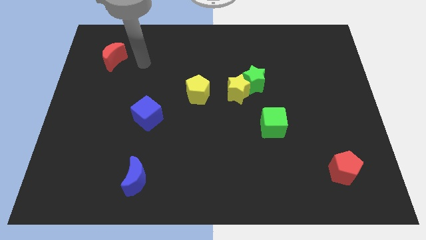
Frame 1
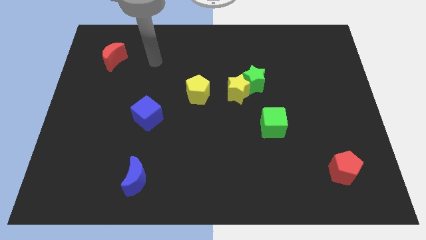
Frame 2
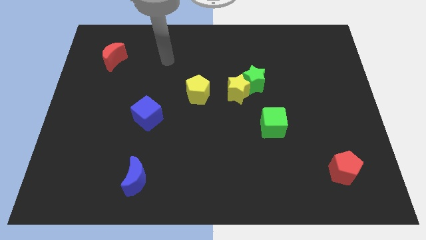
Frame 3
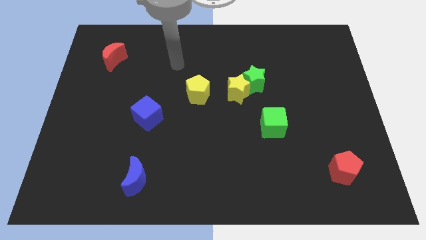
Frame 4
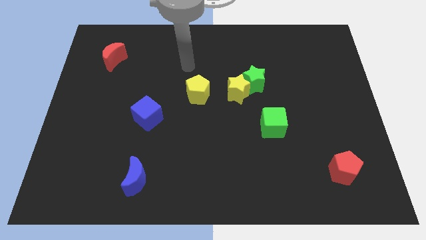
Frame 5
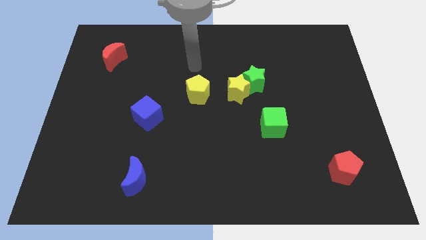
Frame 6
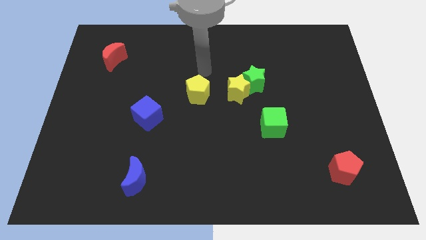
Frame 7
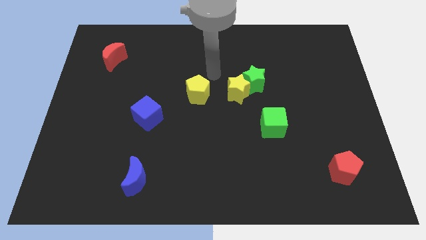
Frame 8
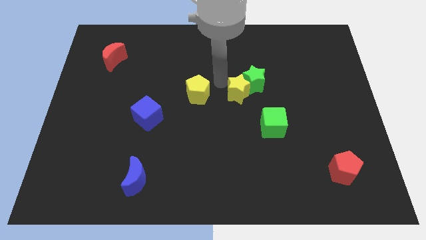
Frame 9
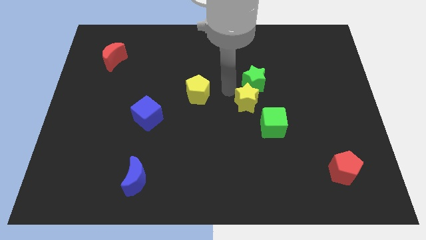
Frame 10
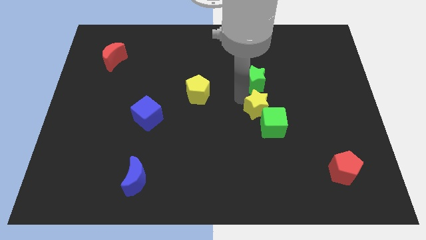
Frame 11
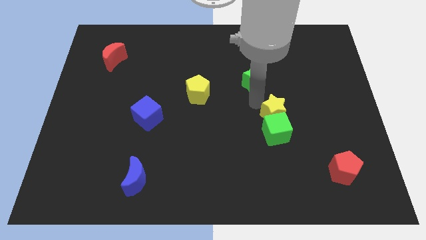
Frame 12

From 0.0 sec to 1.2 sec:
move the green star away from the yellow star

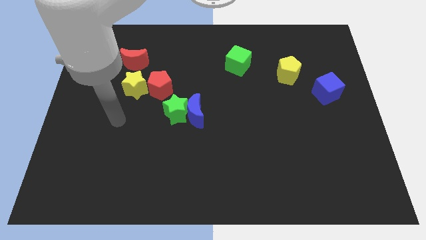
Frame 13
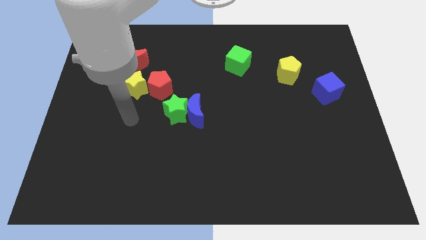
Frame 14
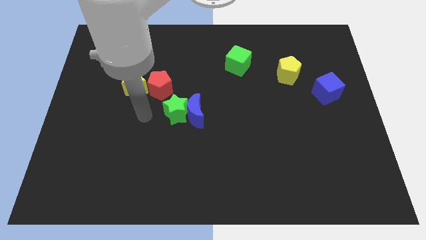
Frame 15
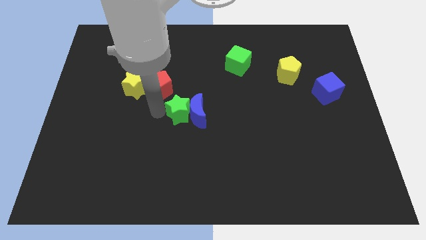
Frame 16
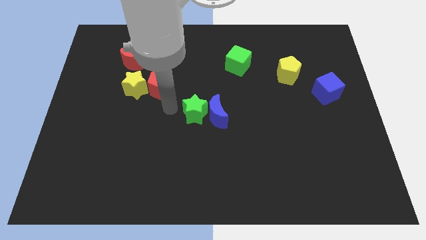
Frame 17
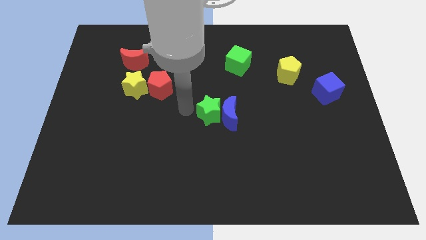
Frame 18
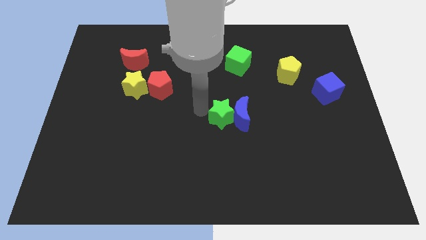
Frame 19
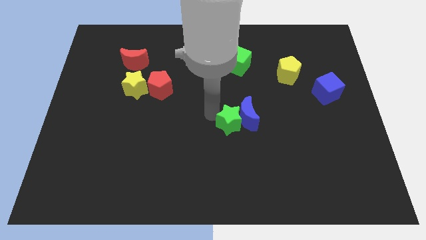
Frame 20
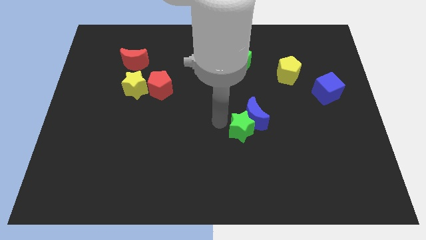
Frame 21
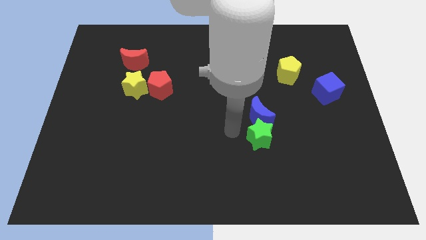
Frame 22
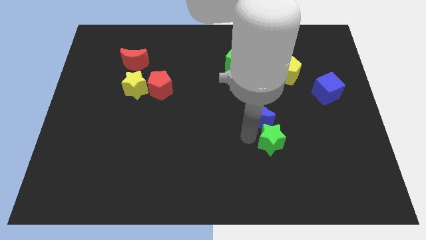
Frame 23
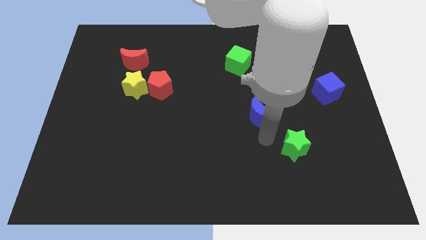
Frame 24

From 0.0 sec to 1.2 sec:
separate the blue moon from the green star

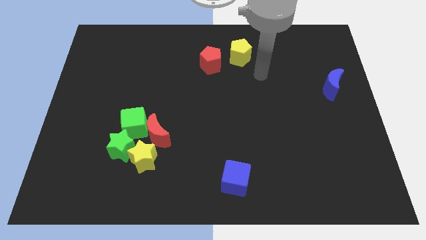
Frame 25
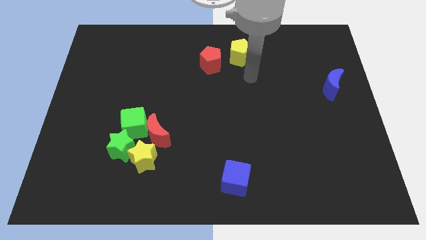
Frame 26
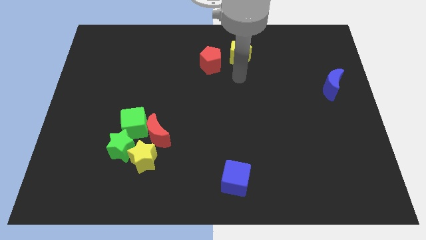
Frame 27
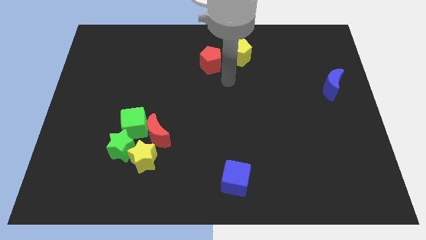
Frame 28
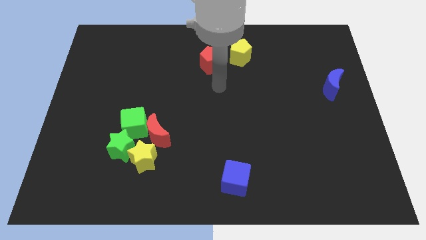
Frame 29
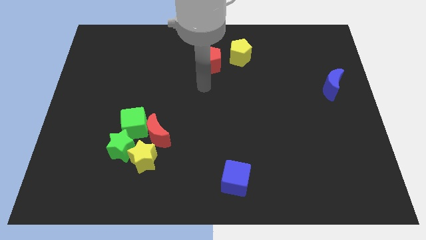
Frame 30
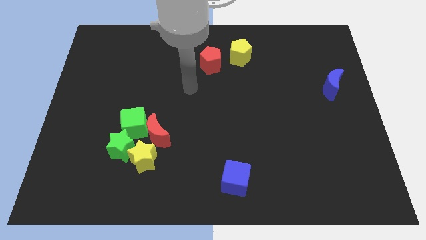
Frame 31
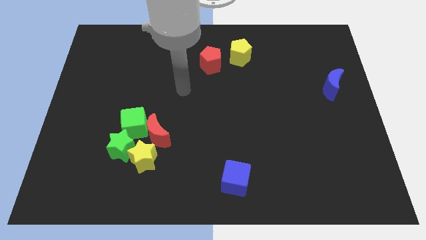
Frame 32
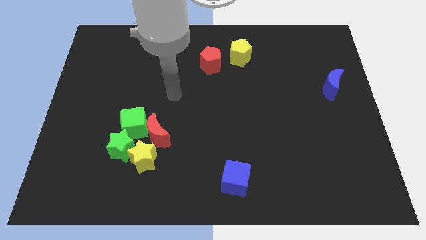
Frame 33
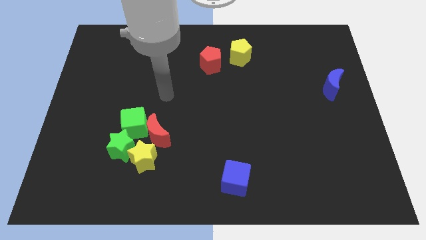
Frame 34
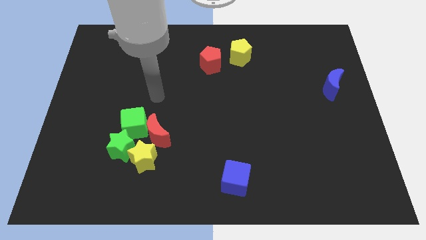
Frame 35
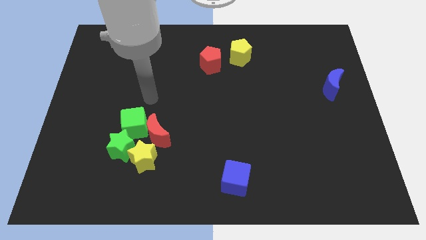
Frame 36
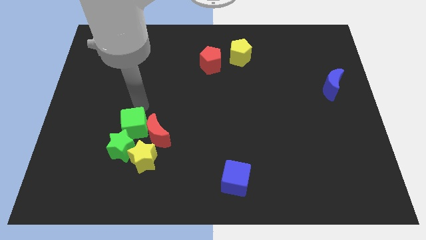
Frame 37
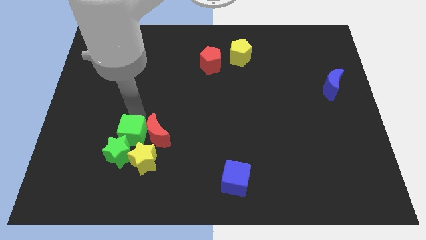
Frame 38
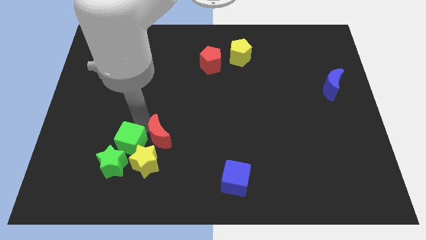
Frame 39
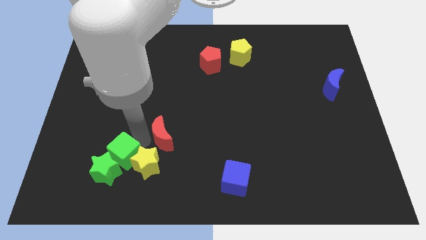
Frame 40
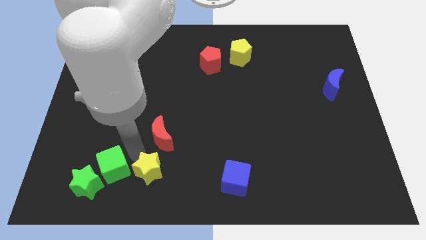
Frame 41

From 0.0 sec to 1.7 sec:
move the green star away from the yellow star, green cube, and red moon
